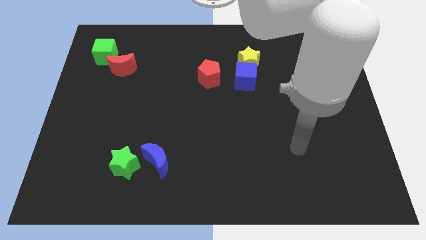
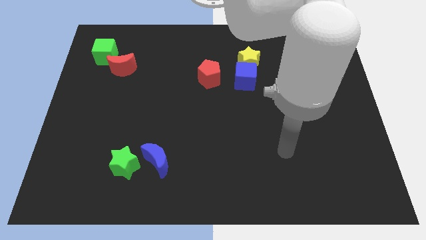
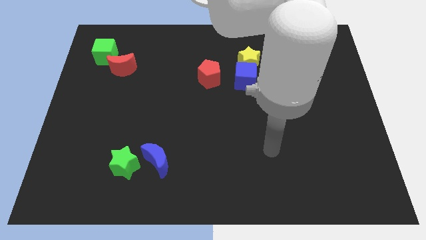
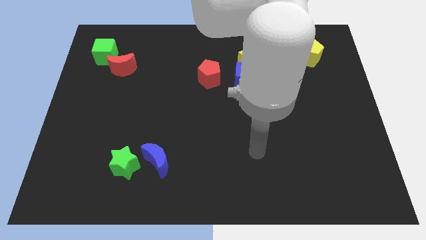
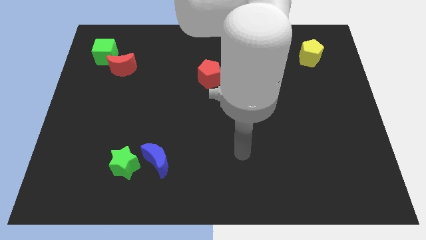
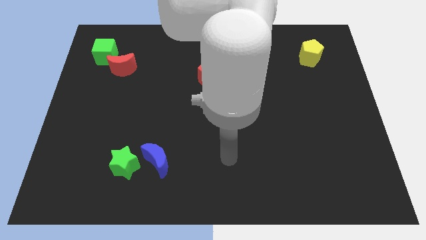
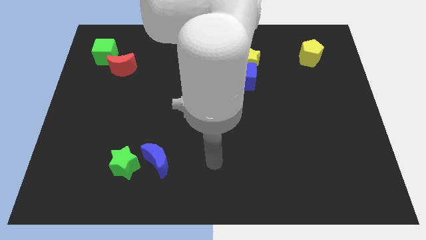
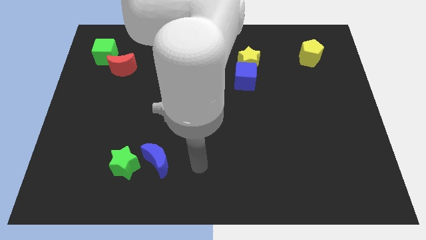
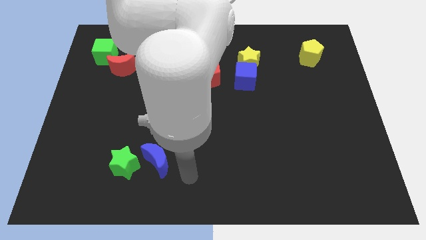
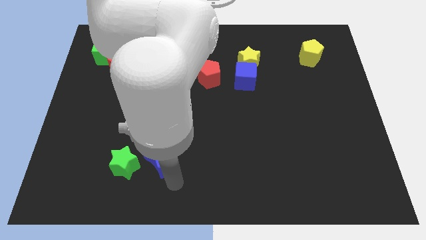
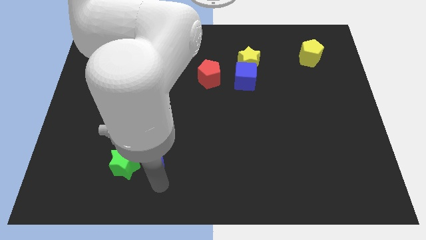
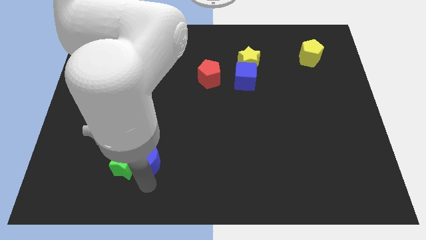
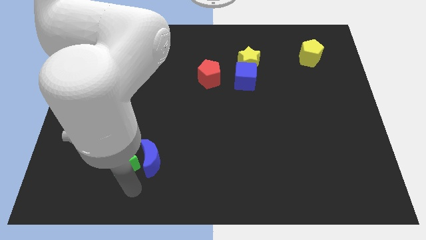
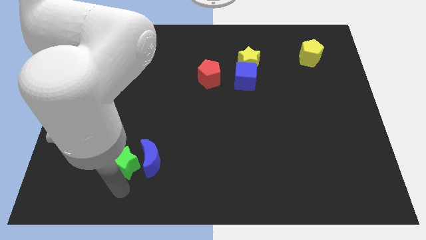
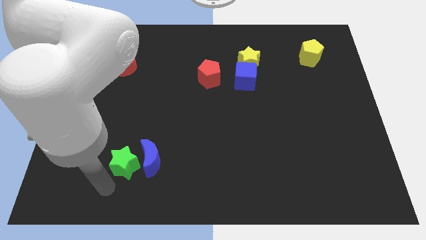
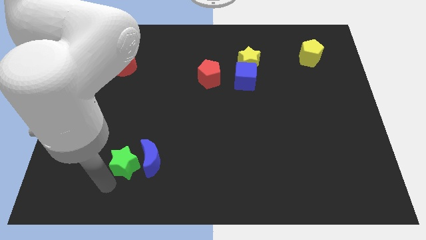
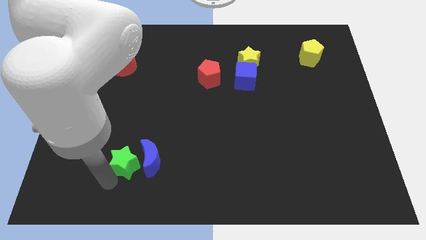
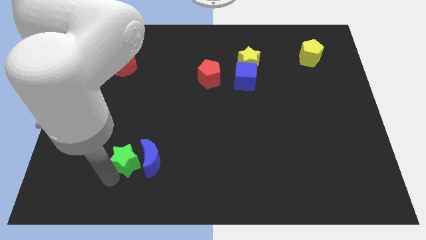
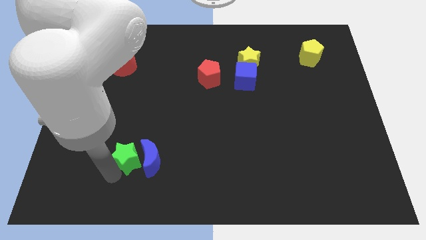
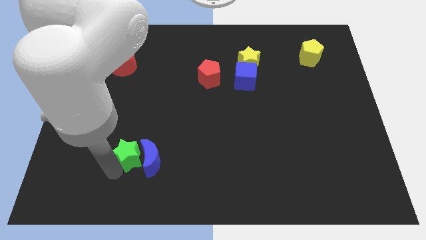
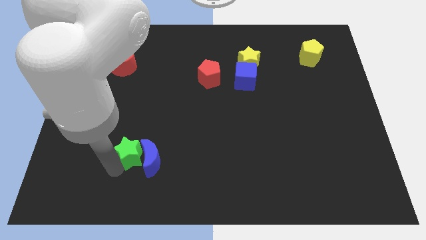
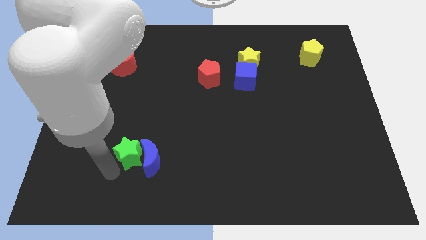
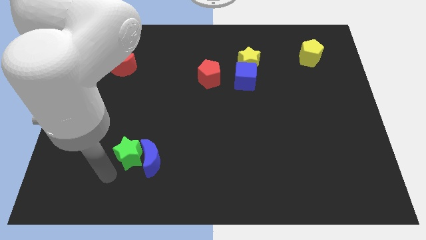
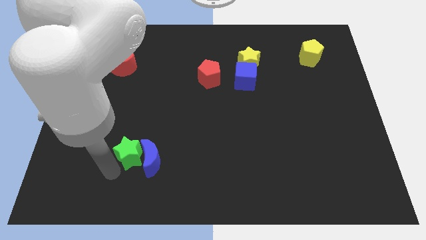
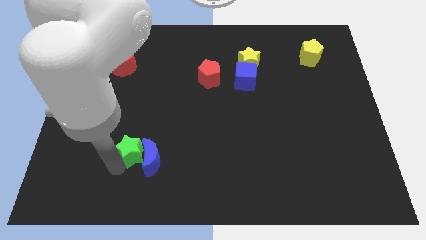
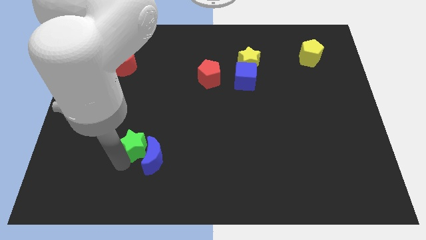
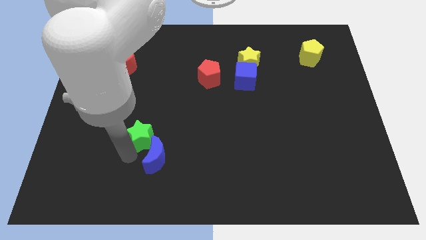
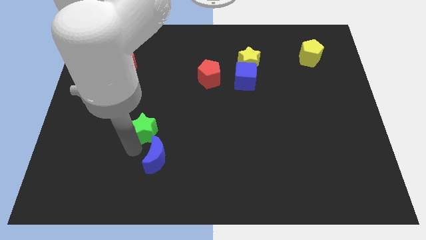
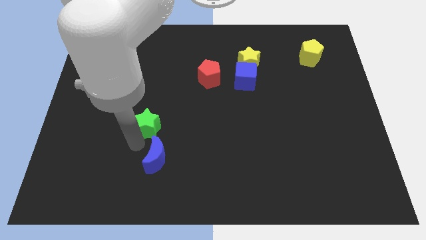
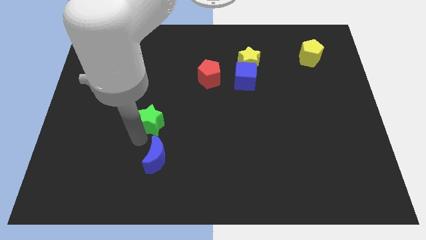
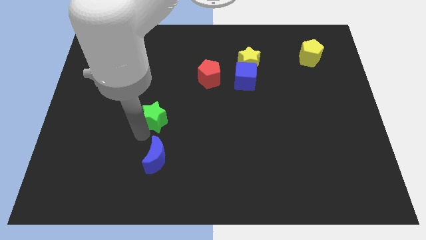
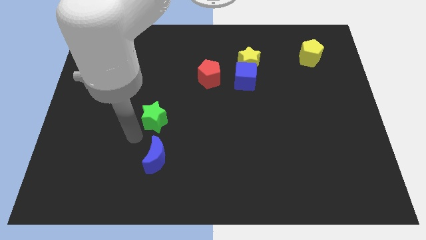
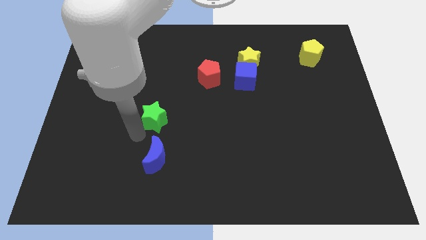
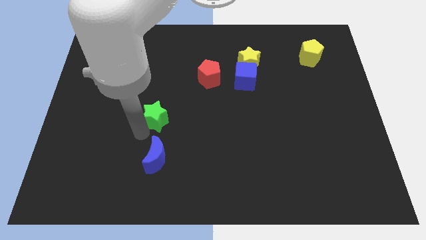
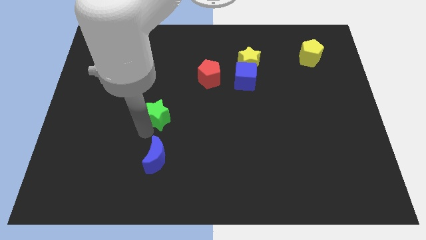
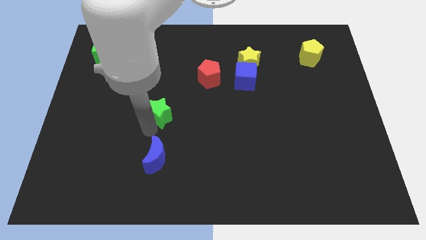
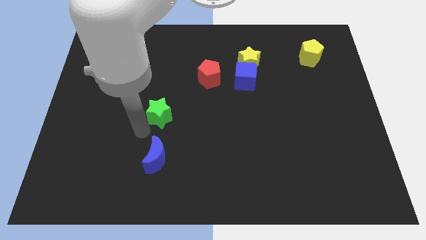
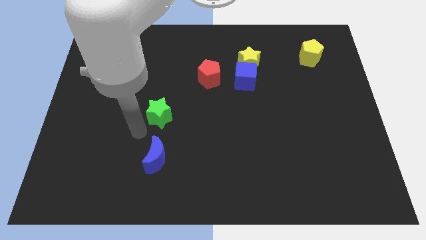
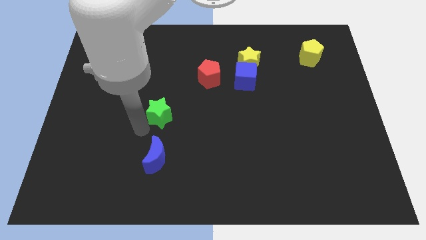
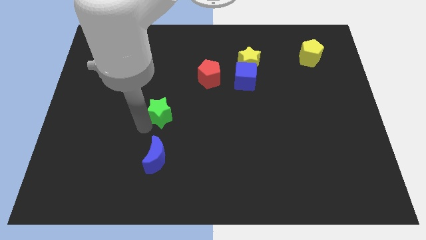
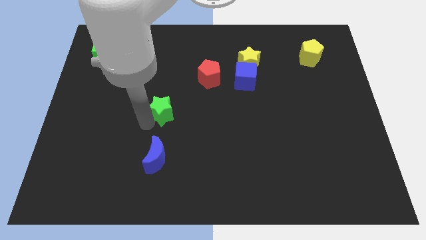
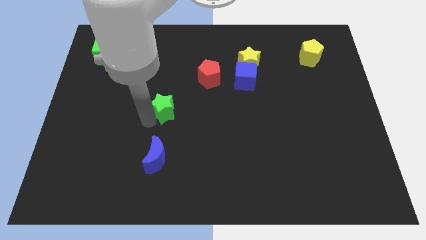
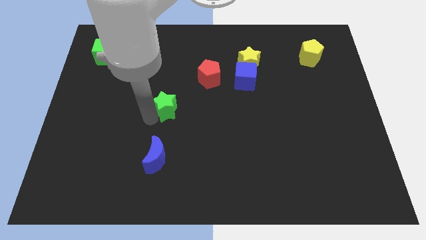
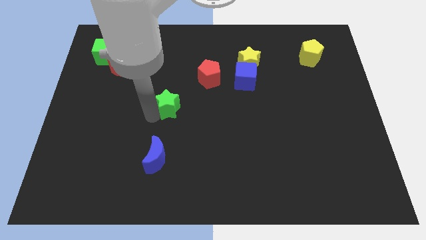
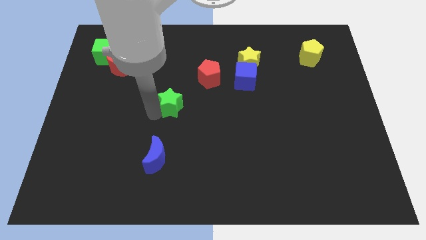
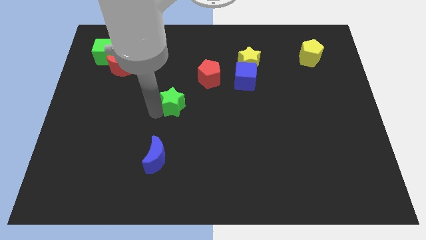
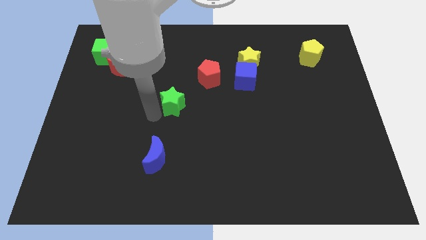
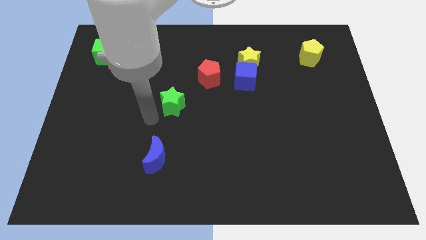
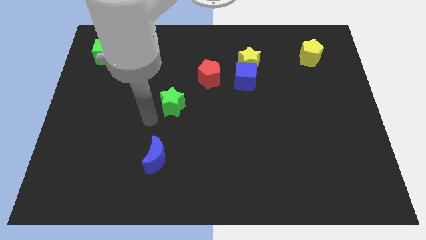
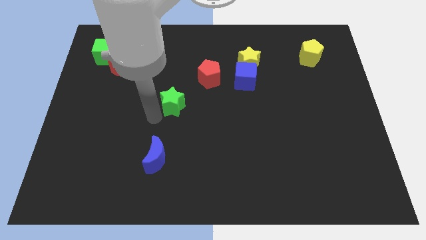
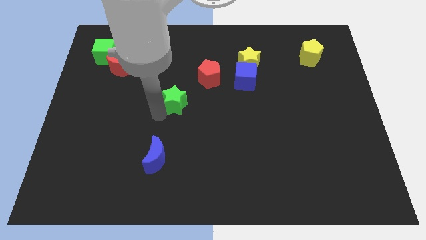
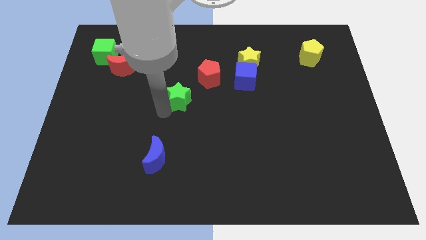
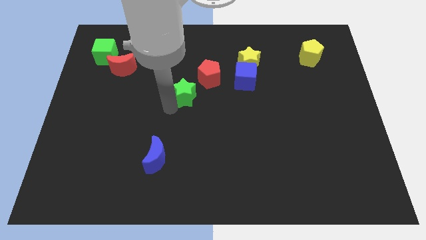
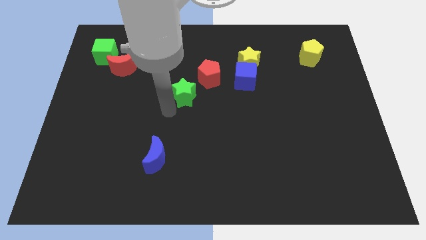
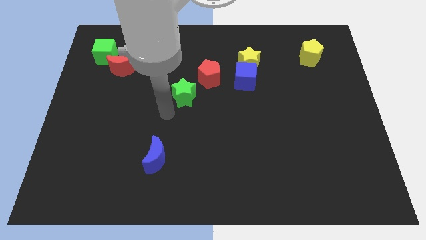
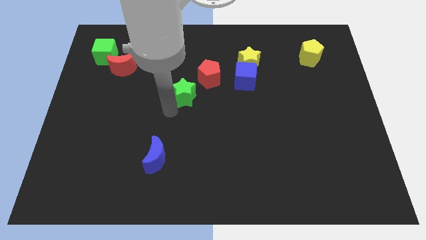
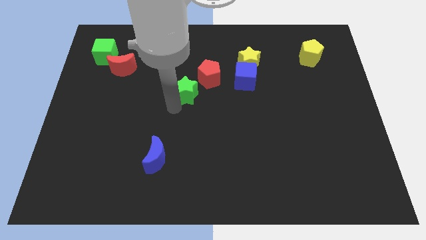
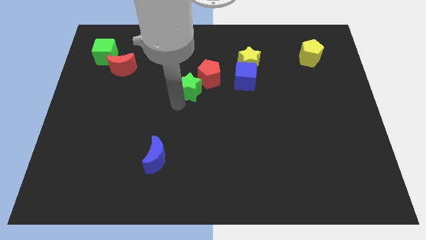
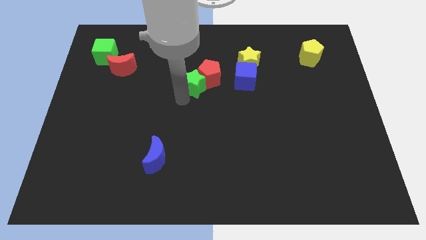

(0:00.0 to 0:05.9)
move the green star close to the red pentagon

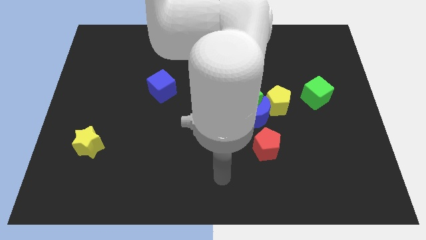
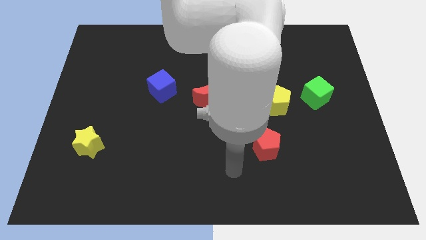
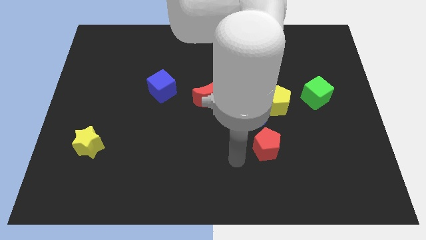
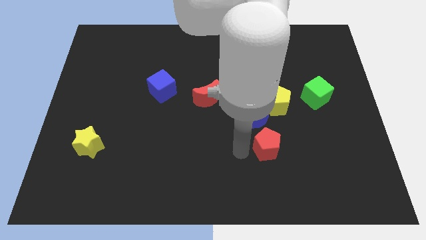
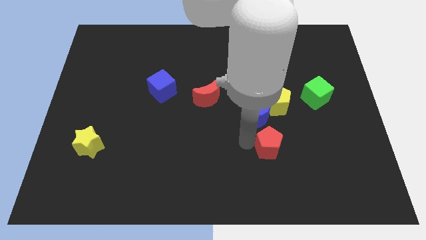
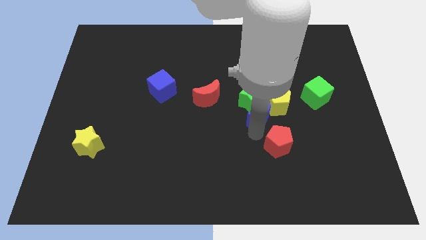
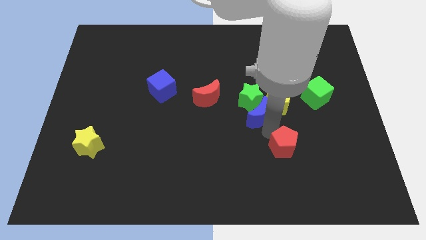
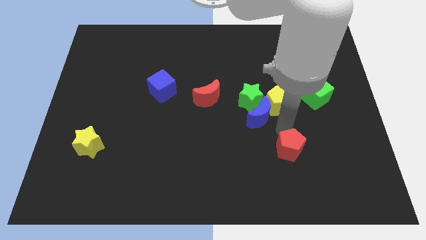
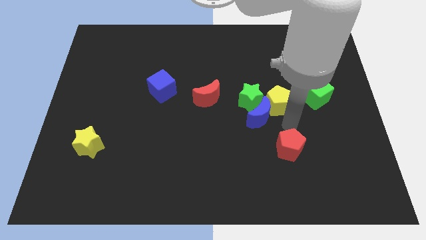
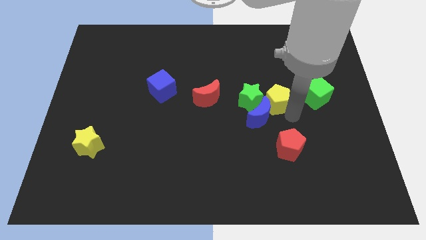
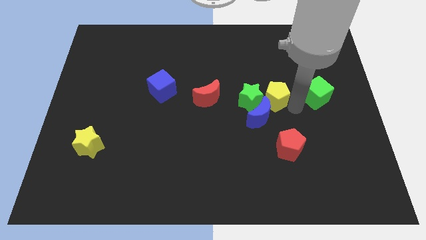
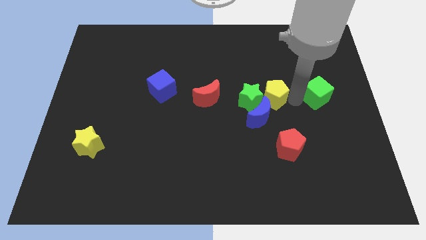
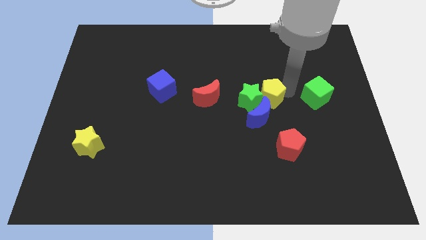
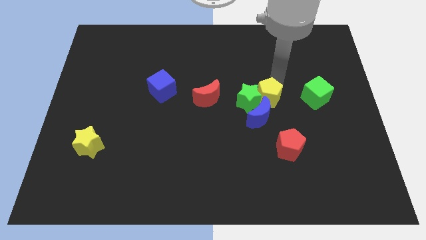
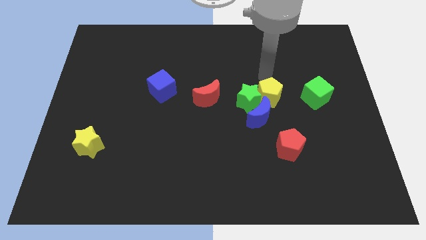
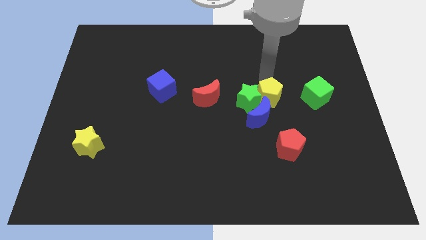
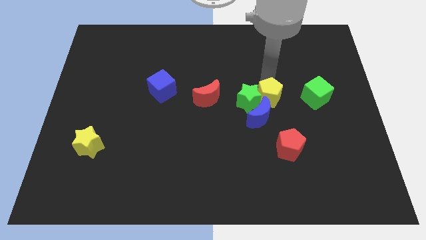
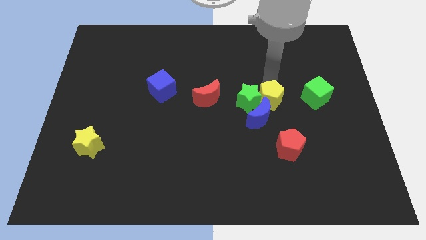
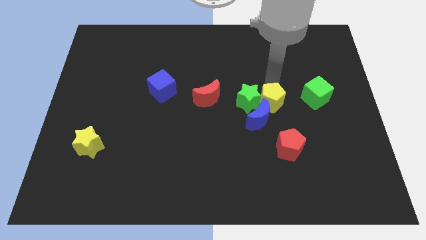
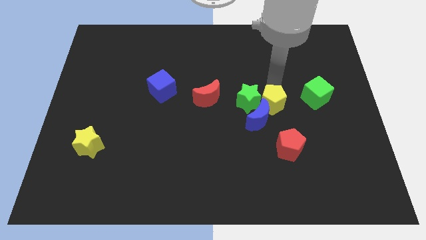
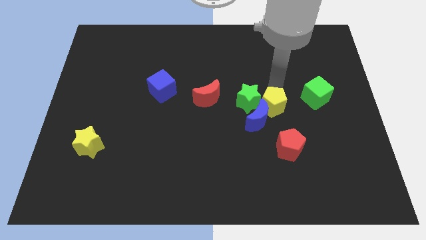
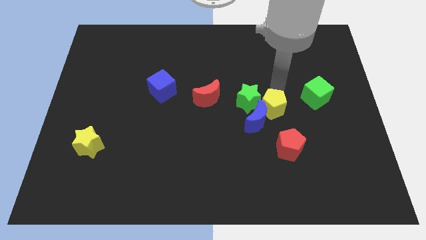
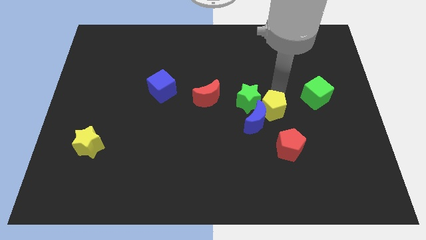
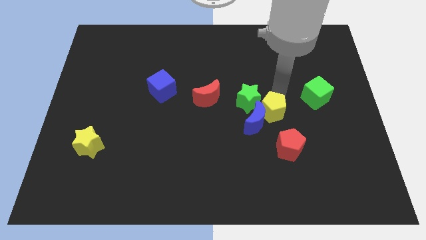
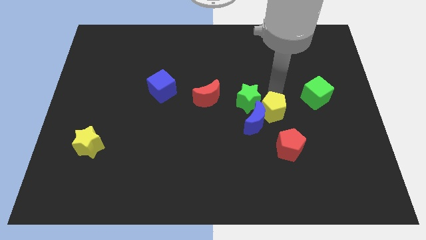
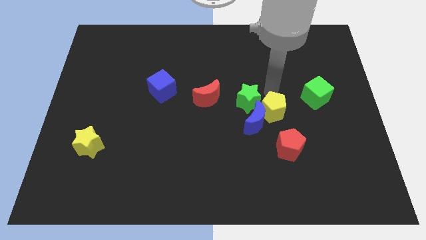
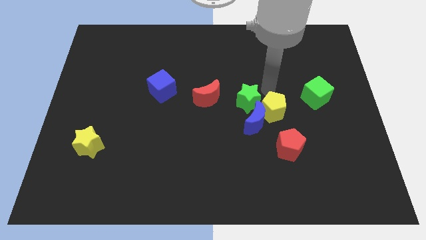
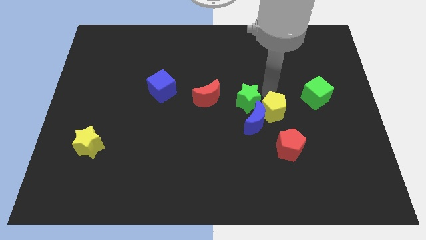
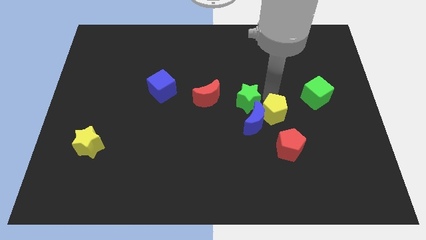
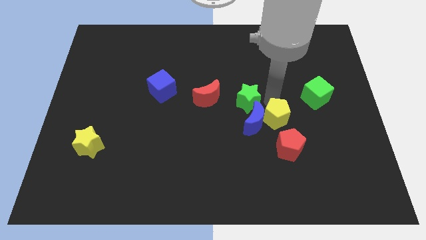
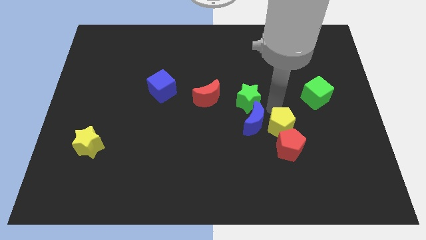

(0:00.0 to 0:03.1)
put the yellow pentagon towards the red pentagon
